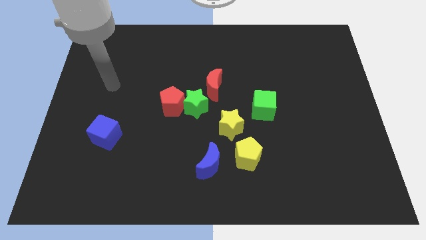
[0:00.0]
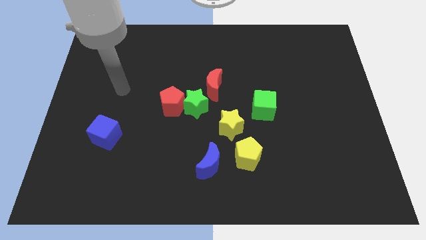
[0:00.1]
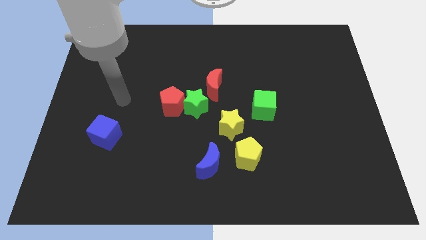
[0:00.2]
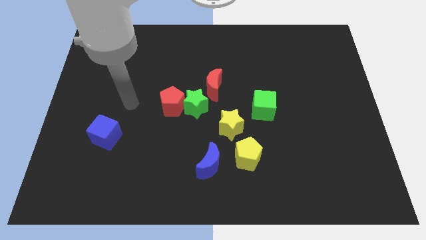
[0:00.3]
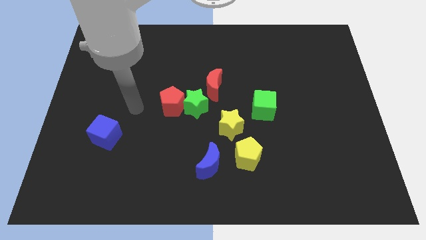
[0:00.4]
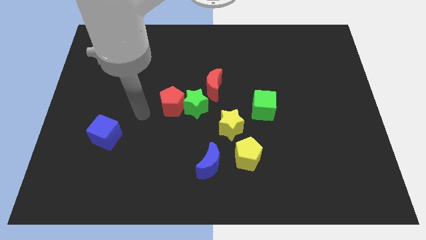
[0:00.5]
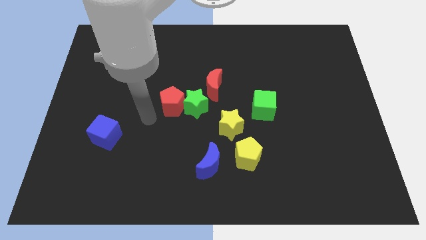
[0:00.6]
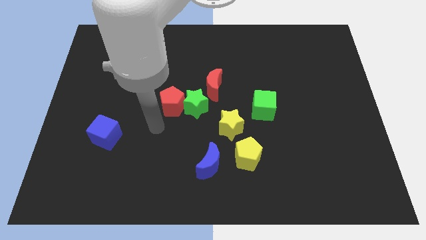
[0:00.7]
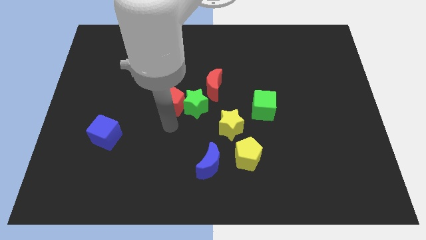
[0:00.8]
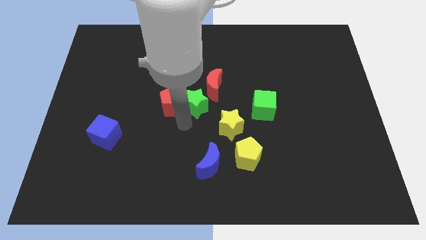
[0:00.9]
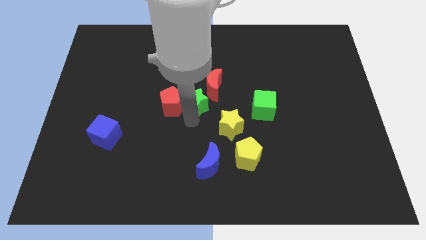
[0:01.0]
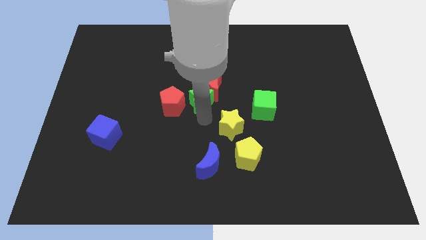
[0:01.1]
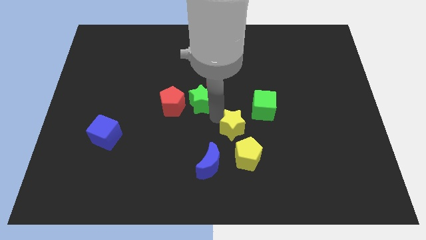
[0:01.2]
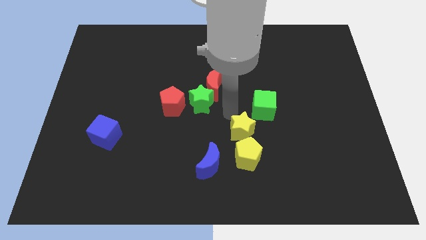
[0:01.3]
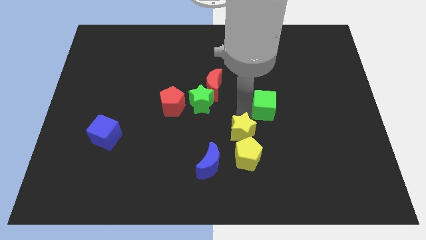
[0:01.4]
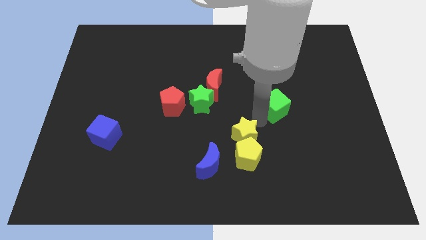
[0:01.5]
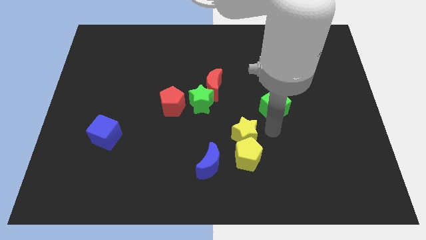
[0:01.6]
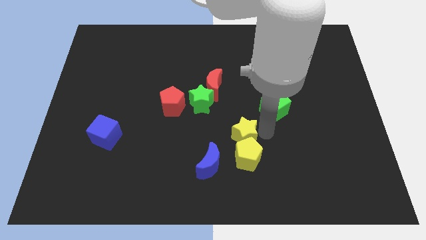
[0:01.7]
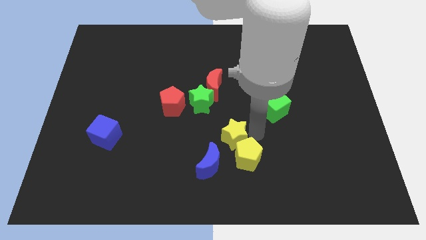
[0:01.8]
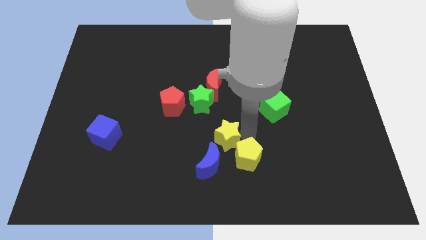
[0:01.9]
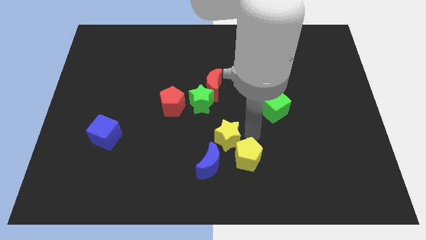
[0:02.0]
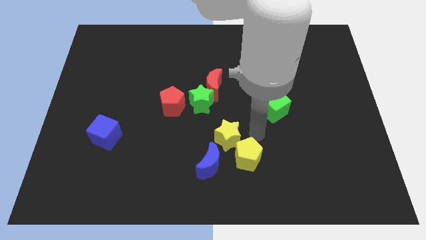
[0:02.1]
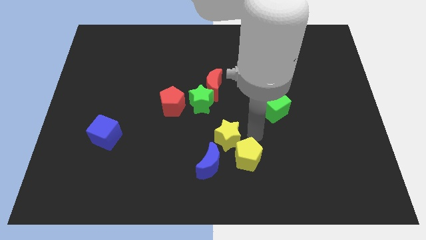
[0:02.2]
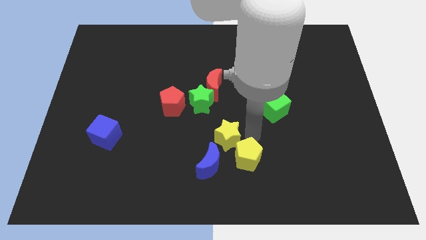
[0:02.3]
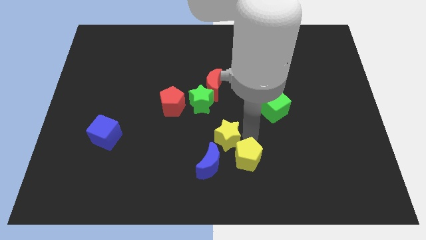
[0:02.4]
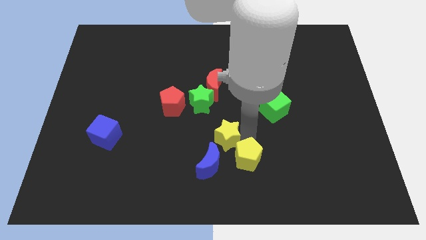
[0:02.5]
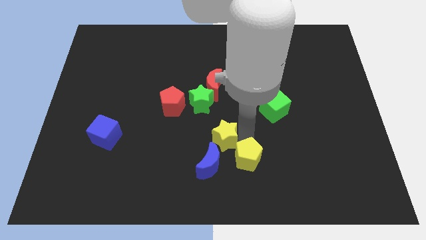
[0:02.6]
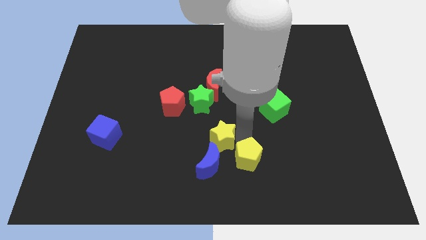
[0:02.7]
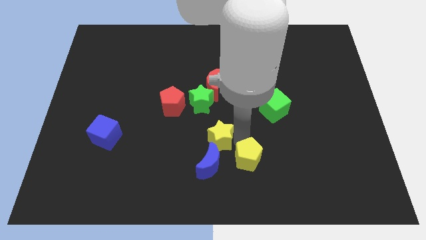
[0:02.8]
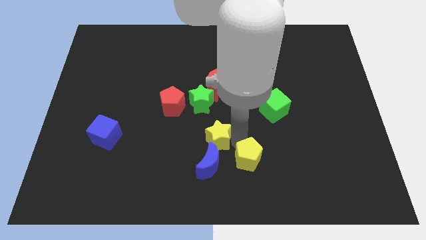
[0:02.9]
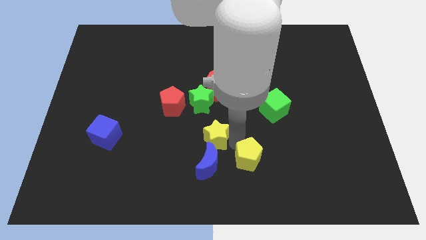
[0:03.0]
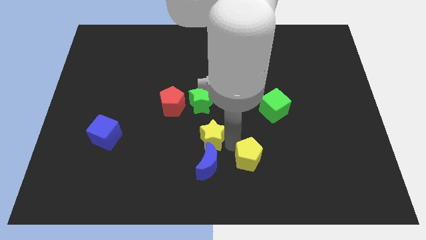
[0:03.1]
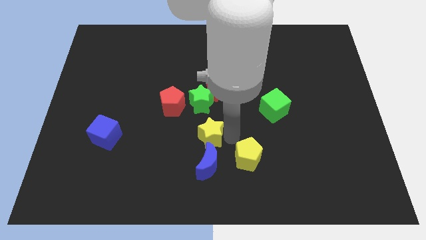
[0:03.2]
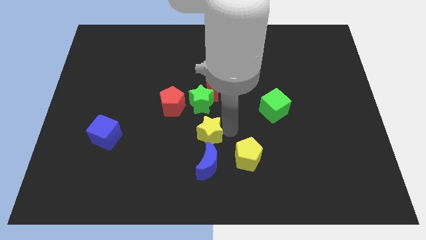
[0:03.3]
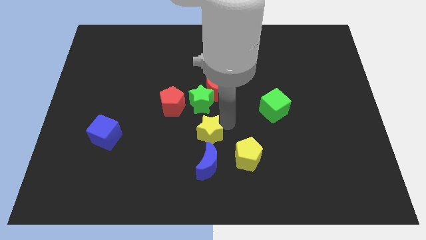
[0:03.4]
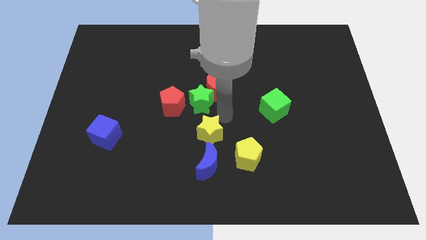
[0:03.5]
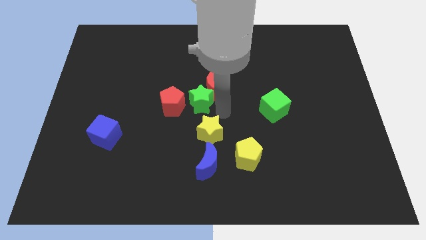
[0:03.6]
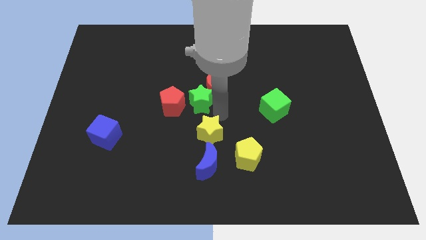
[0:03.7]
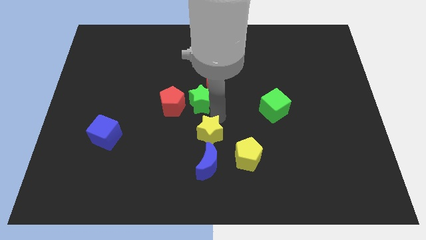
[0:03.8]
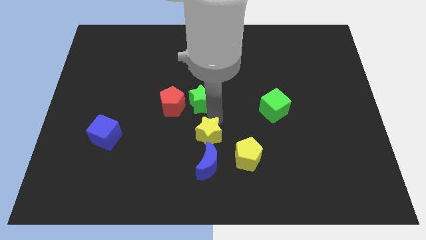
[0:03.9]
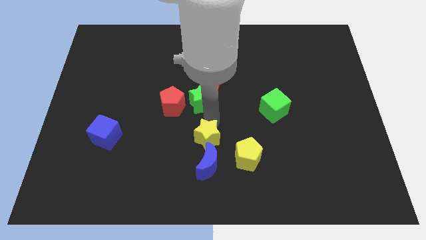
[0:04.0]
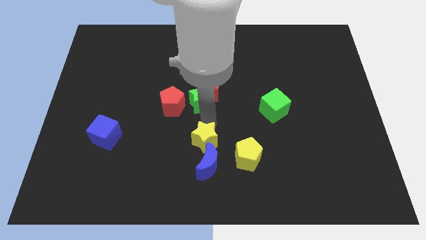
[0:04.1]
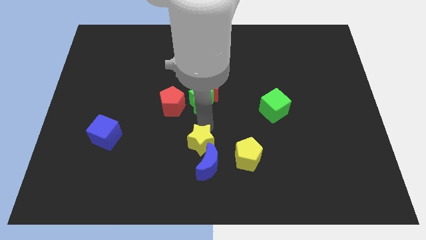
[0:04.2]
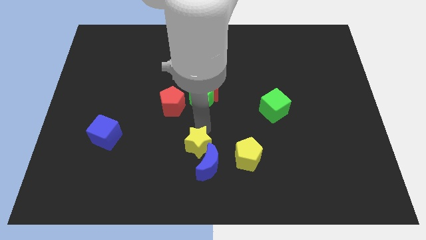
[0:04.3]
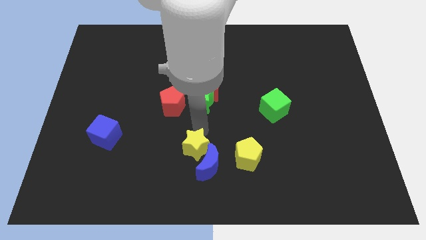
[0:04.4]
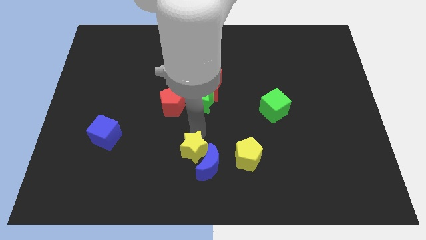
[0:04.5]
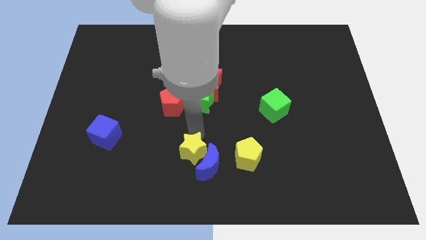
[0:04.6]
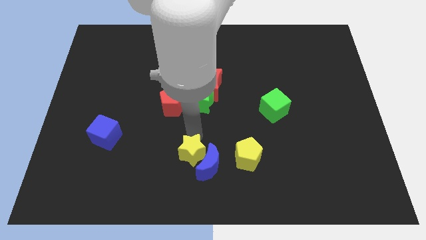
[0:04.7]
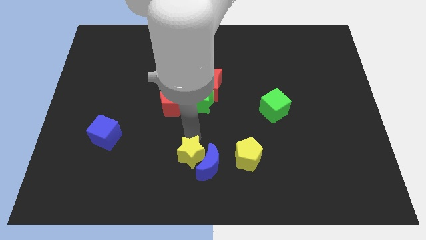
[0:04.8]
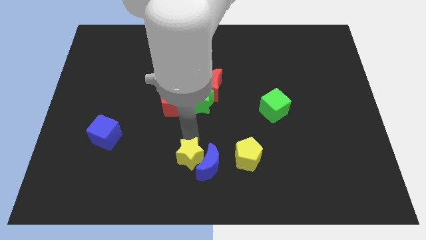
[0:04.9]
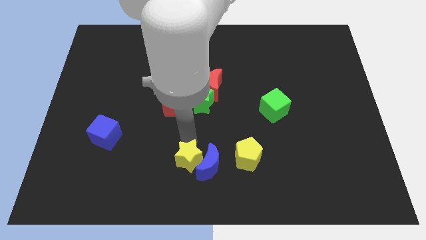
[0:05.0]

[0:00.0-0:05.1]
put the yellow star to the bottom side

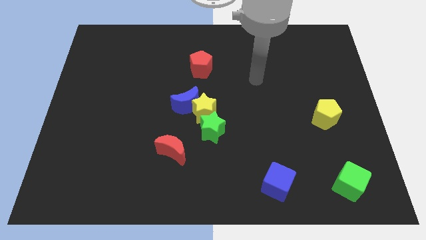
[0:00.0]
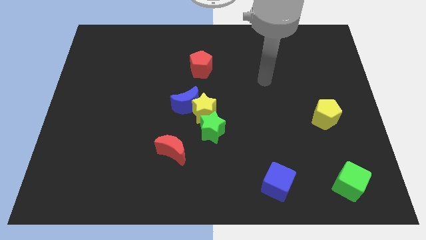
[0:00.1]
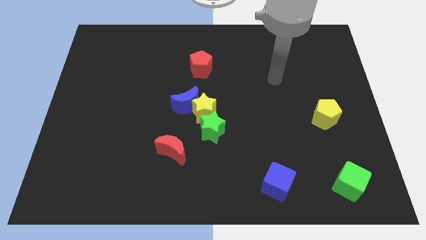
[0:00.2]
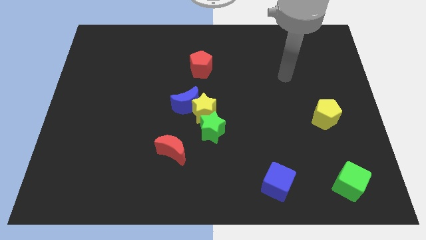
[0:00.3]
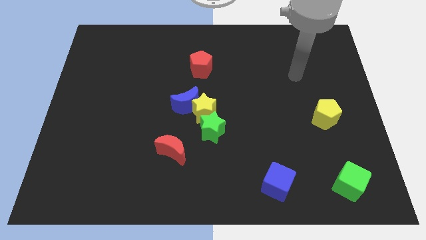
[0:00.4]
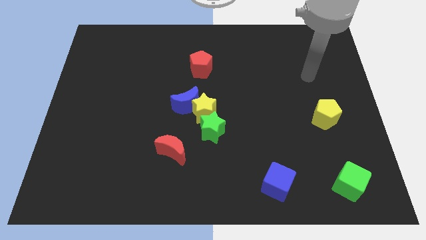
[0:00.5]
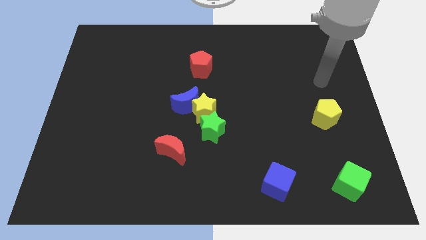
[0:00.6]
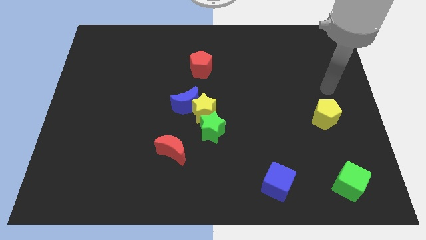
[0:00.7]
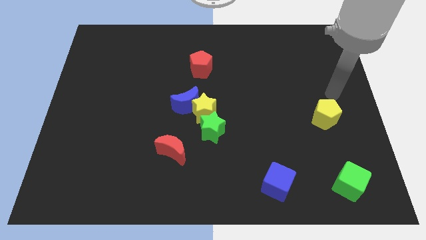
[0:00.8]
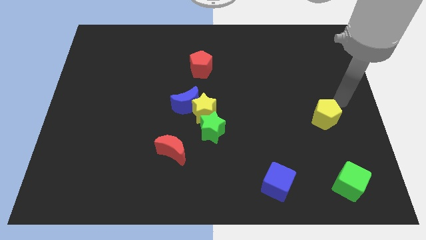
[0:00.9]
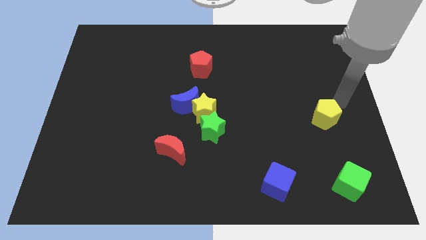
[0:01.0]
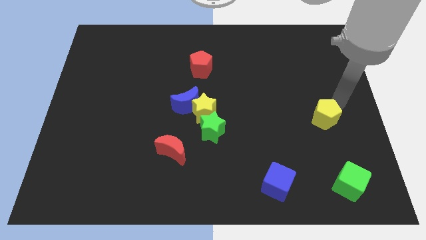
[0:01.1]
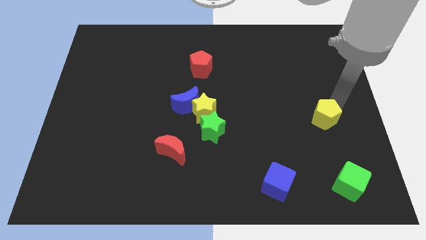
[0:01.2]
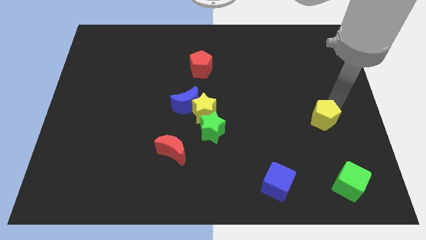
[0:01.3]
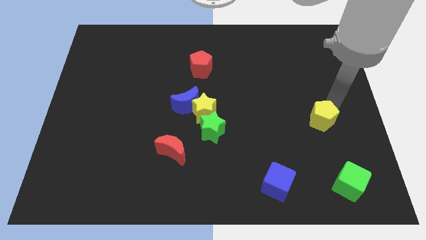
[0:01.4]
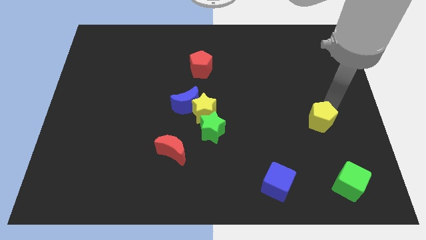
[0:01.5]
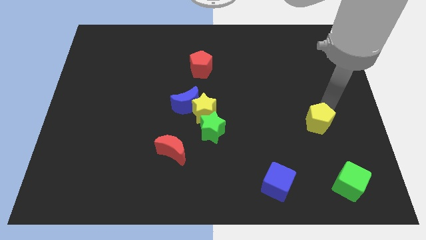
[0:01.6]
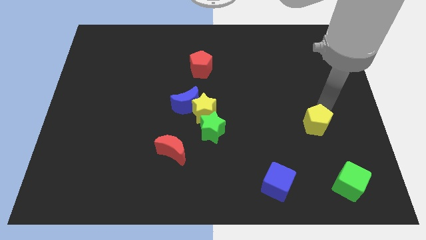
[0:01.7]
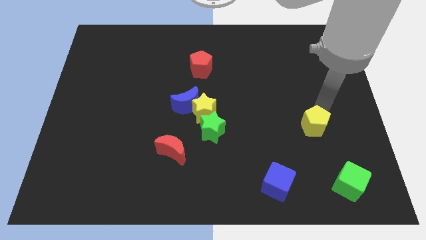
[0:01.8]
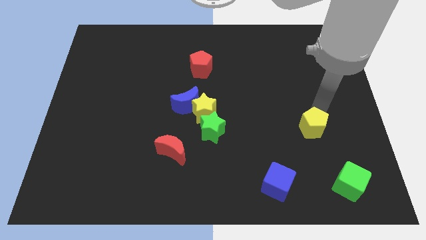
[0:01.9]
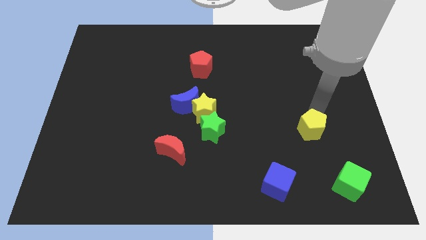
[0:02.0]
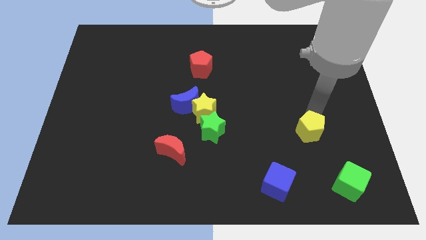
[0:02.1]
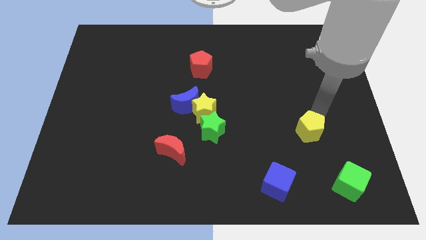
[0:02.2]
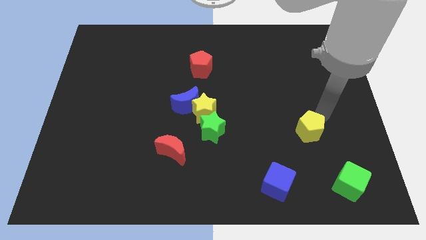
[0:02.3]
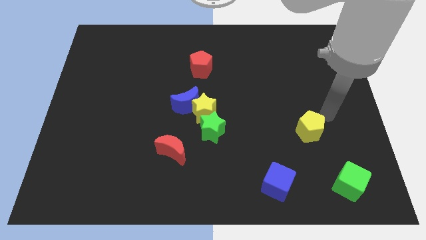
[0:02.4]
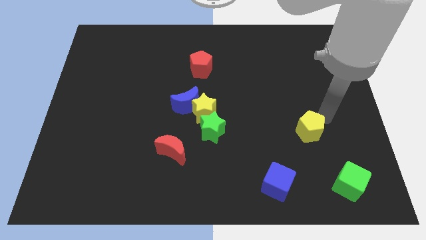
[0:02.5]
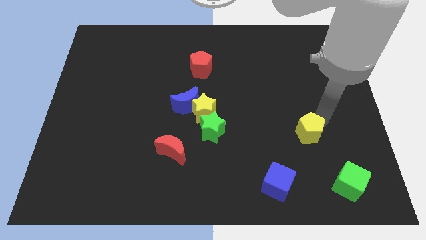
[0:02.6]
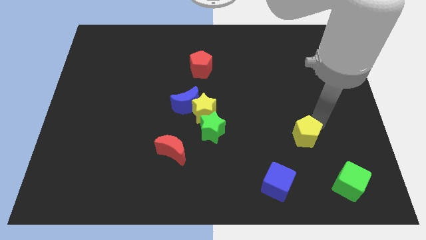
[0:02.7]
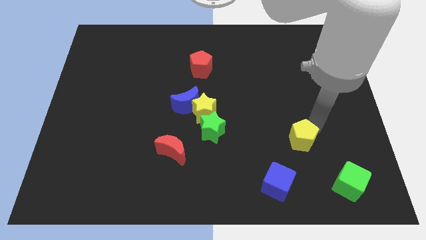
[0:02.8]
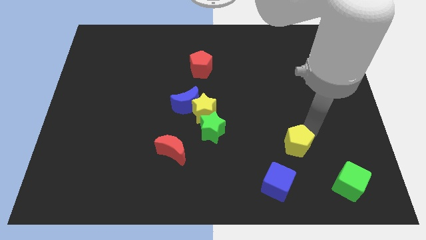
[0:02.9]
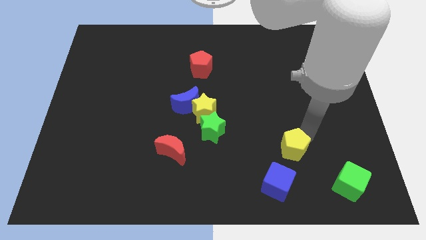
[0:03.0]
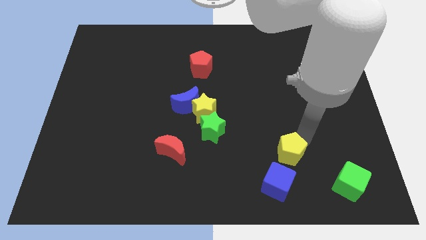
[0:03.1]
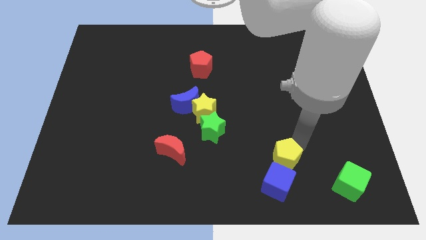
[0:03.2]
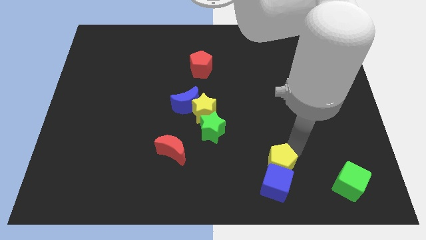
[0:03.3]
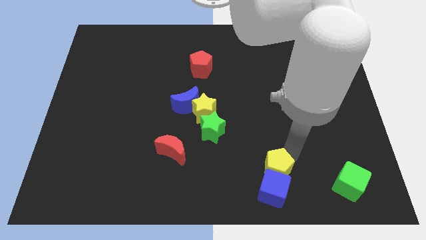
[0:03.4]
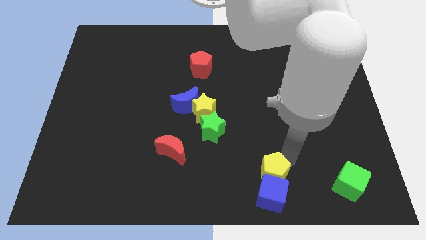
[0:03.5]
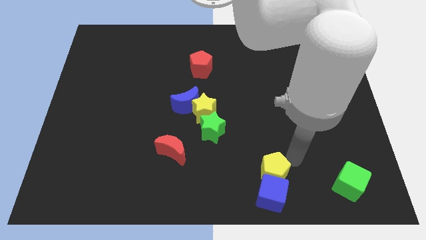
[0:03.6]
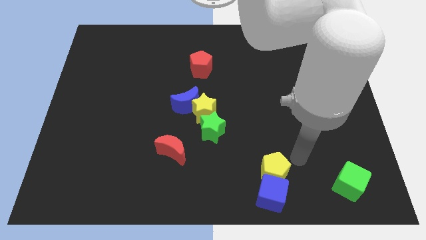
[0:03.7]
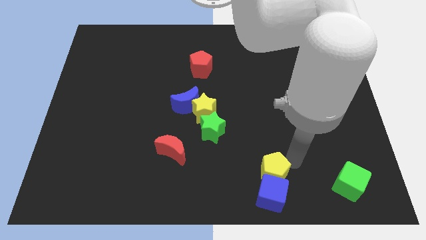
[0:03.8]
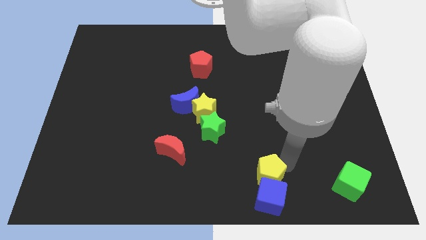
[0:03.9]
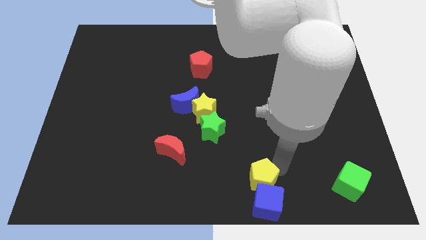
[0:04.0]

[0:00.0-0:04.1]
move the yellow pentagon to the bottom
